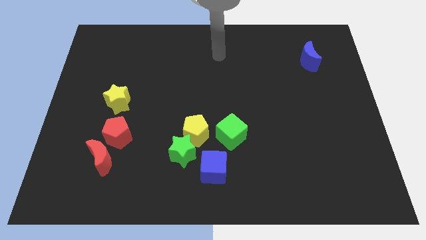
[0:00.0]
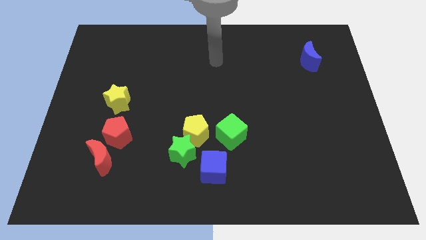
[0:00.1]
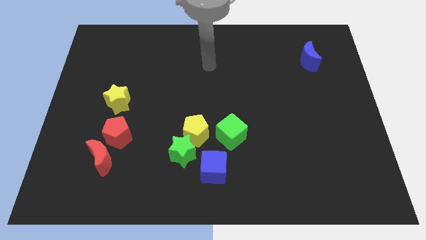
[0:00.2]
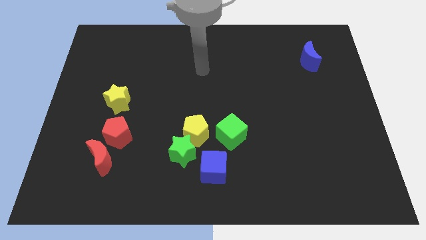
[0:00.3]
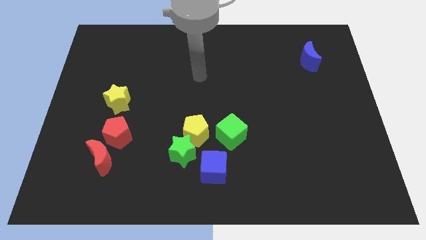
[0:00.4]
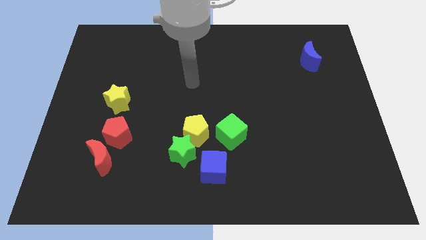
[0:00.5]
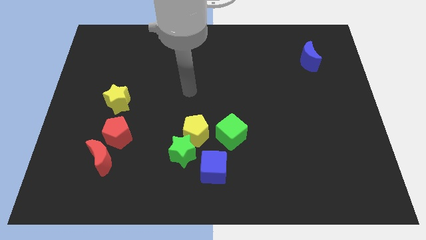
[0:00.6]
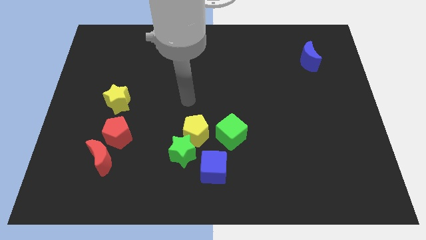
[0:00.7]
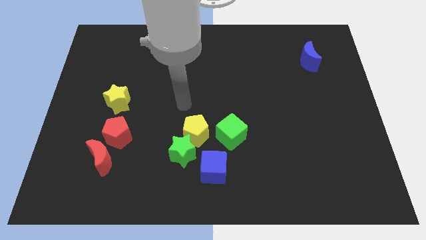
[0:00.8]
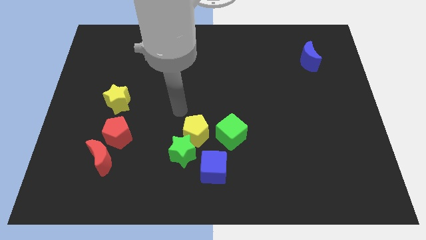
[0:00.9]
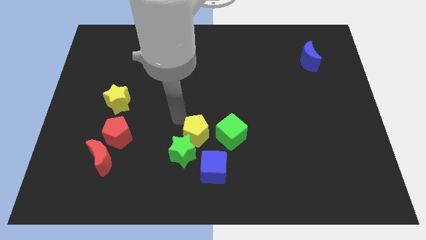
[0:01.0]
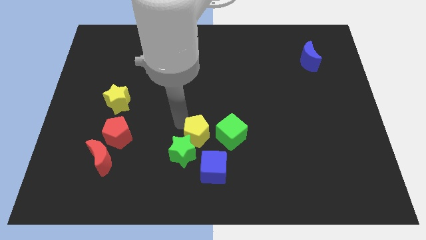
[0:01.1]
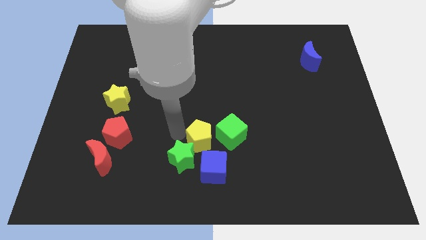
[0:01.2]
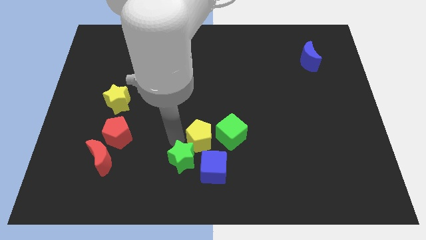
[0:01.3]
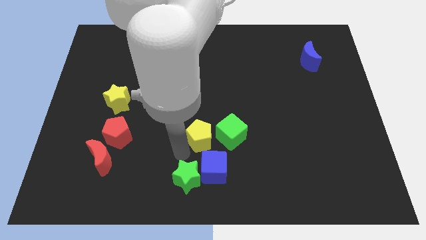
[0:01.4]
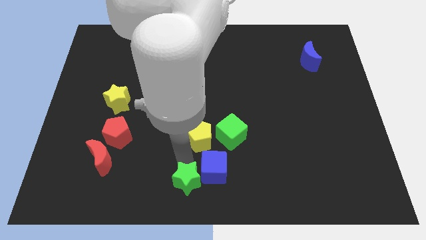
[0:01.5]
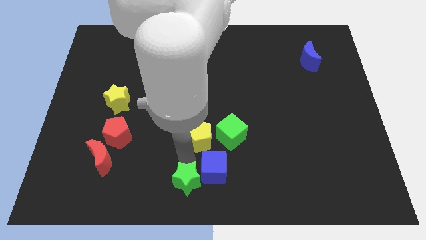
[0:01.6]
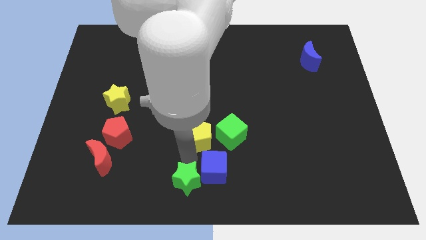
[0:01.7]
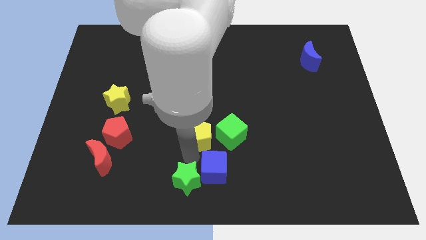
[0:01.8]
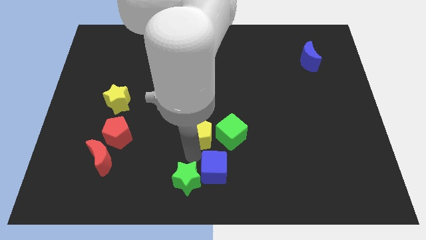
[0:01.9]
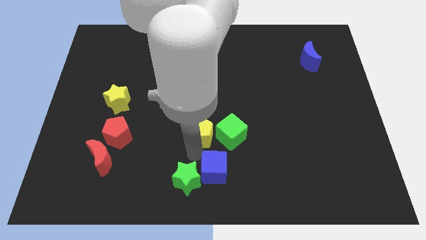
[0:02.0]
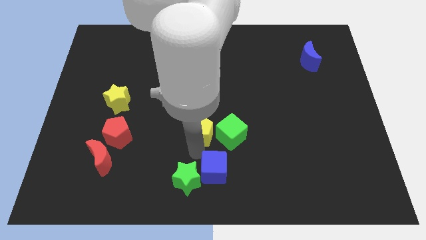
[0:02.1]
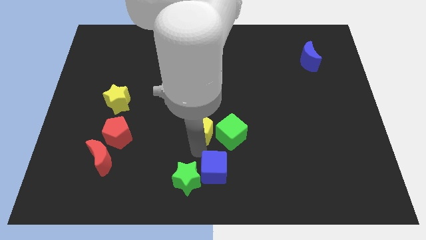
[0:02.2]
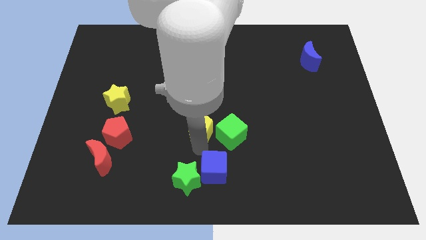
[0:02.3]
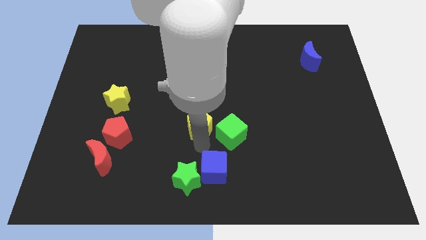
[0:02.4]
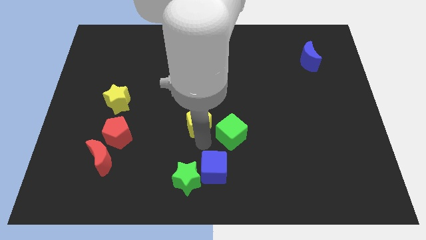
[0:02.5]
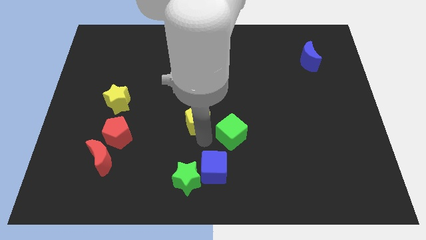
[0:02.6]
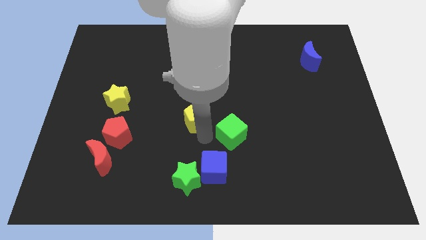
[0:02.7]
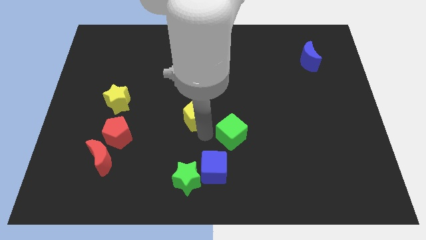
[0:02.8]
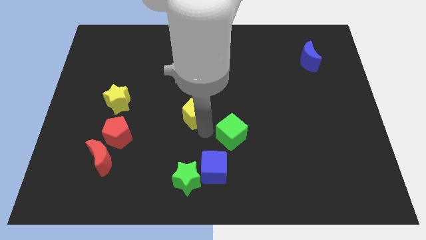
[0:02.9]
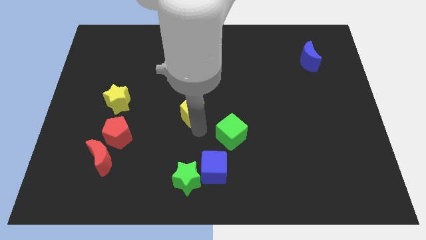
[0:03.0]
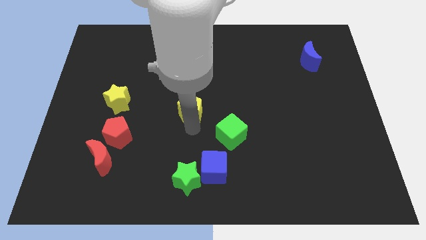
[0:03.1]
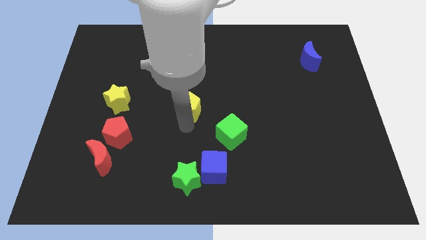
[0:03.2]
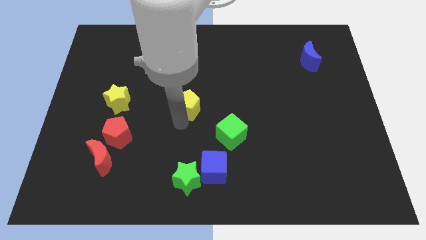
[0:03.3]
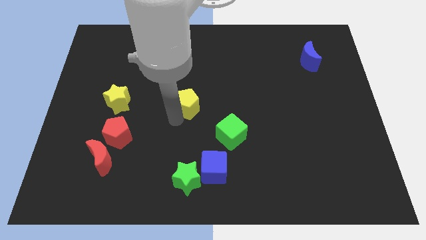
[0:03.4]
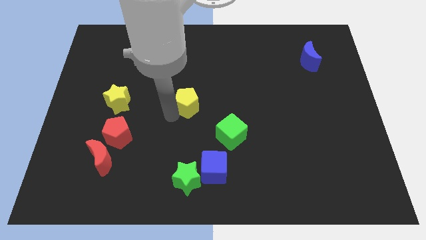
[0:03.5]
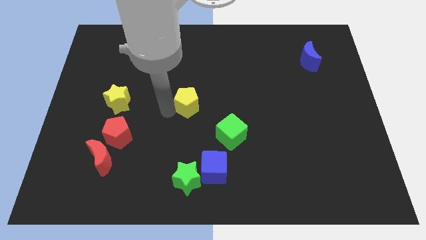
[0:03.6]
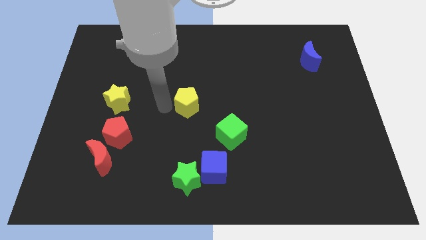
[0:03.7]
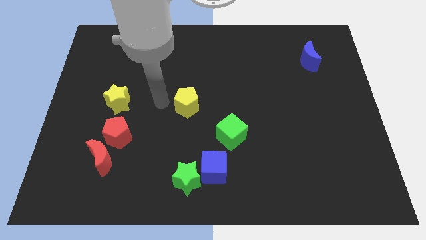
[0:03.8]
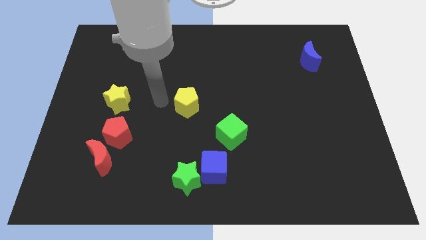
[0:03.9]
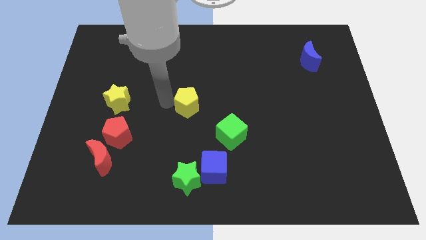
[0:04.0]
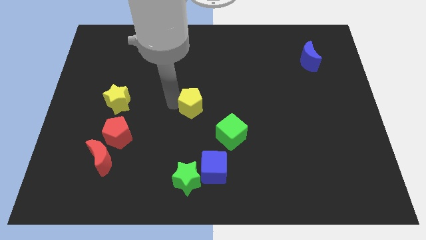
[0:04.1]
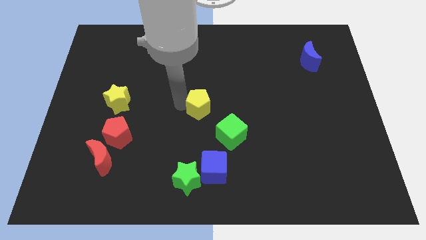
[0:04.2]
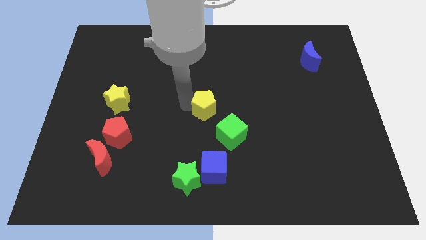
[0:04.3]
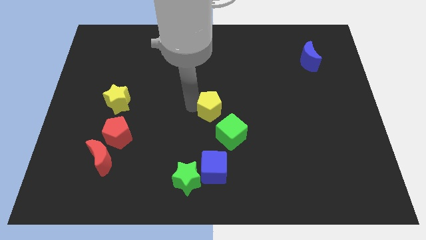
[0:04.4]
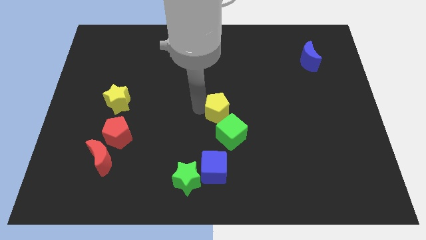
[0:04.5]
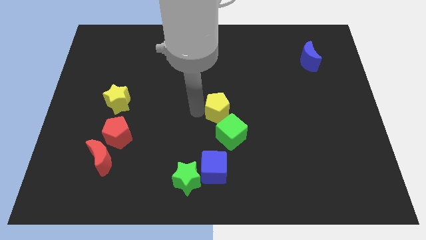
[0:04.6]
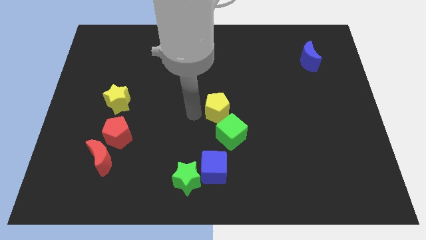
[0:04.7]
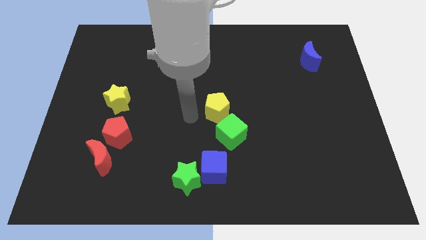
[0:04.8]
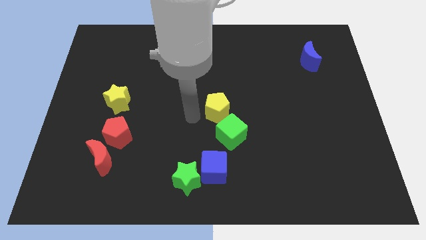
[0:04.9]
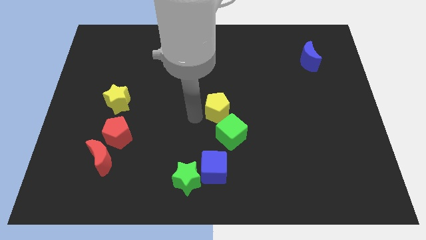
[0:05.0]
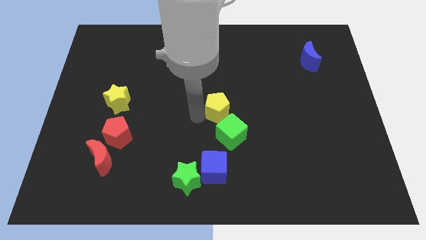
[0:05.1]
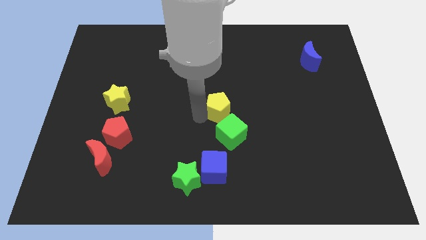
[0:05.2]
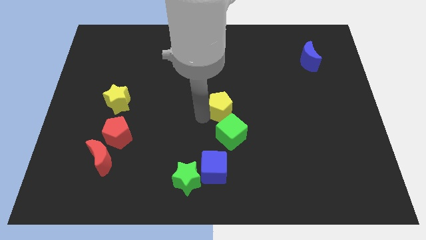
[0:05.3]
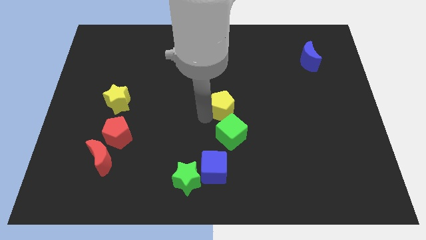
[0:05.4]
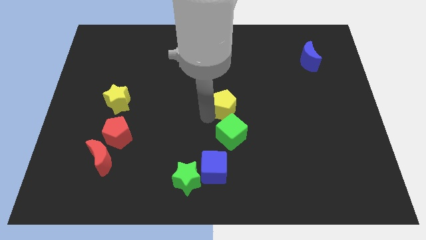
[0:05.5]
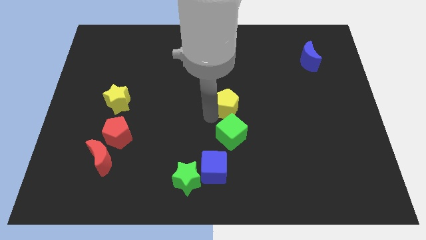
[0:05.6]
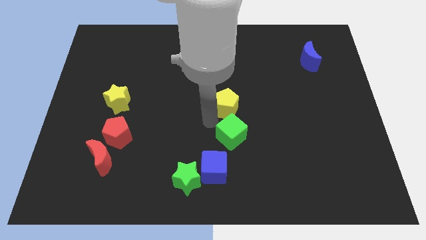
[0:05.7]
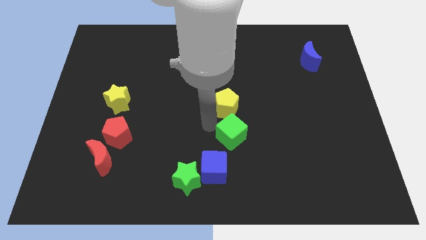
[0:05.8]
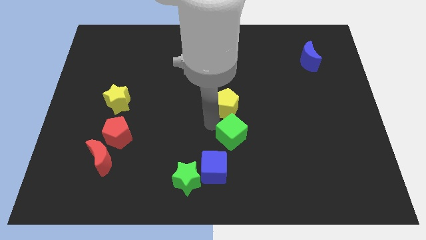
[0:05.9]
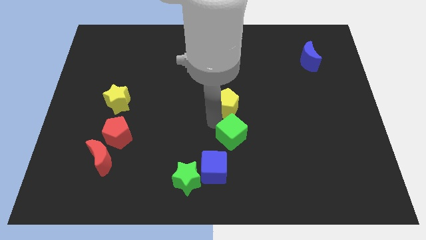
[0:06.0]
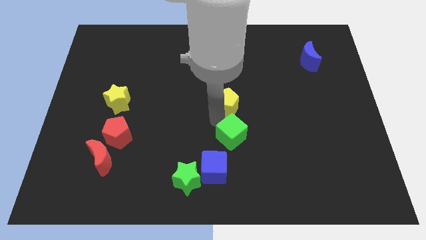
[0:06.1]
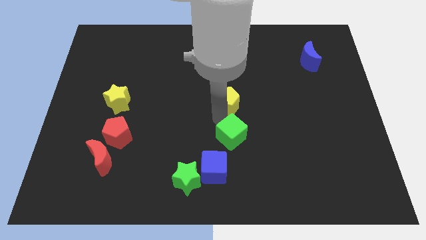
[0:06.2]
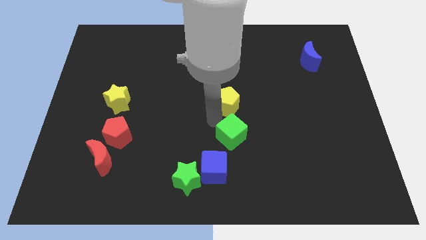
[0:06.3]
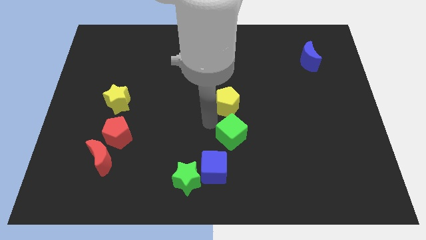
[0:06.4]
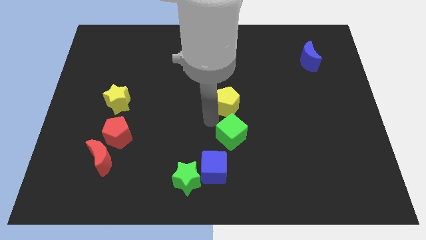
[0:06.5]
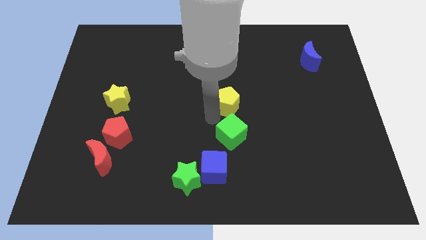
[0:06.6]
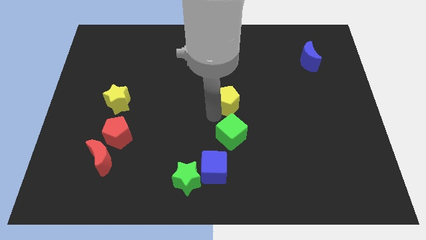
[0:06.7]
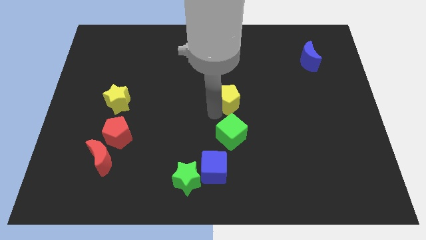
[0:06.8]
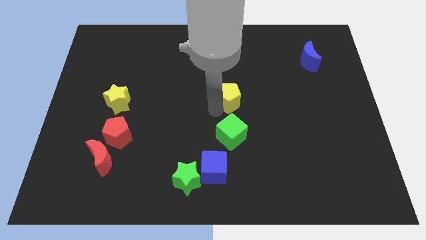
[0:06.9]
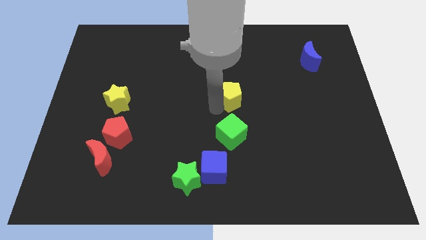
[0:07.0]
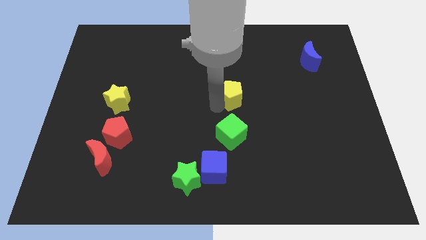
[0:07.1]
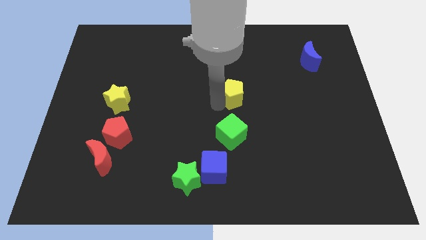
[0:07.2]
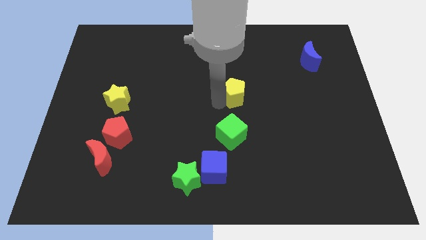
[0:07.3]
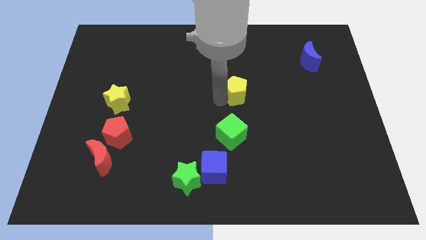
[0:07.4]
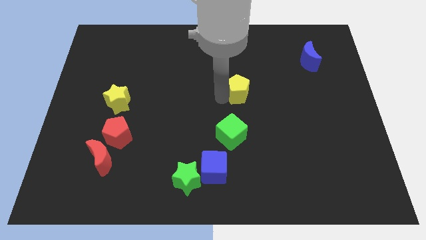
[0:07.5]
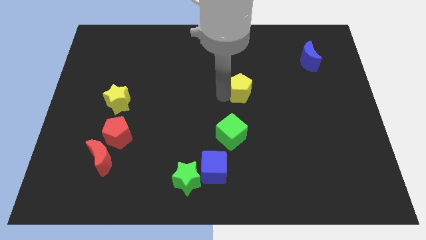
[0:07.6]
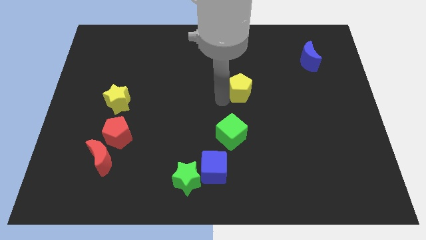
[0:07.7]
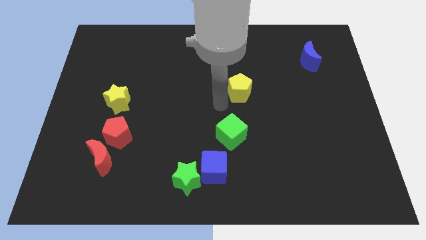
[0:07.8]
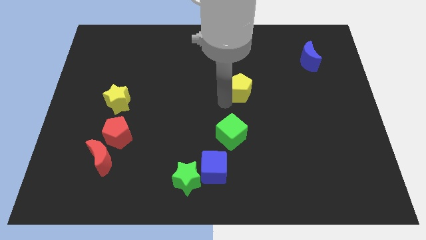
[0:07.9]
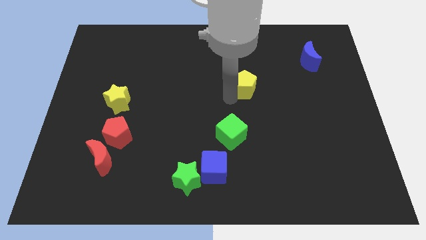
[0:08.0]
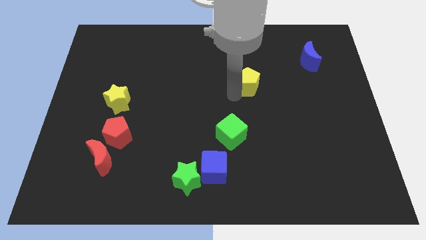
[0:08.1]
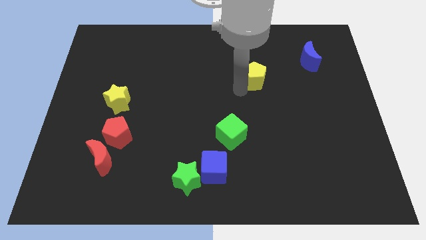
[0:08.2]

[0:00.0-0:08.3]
move the yellow pentagon up and right diagonally
